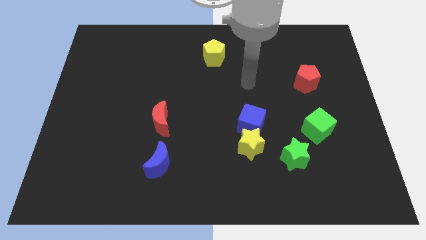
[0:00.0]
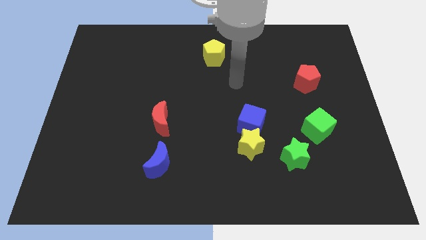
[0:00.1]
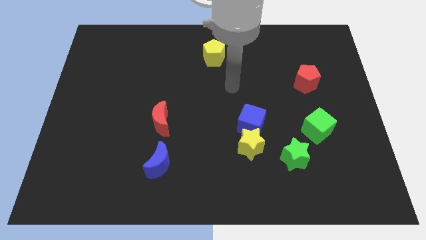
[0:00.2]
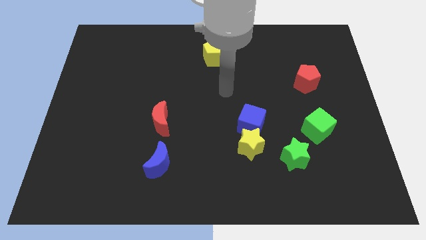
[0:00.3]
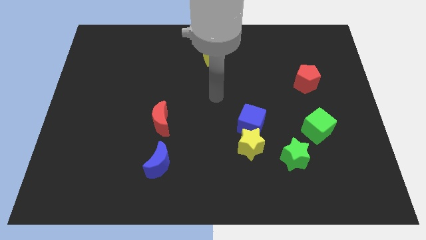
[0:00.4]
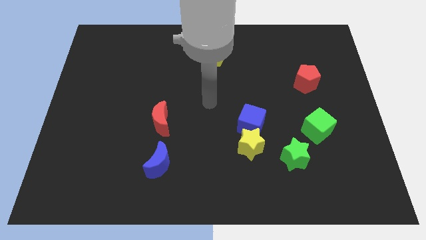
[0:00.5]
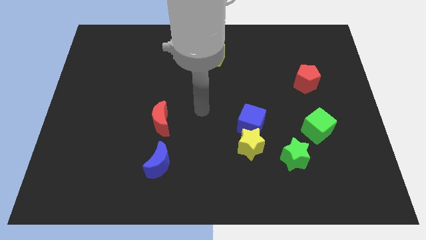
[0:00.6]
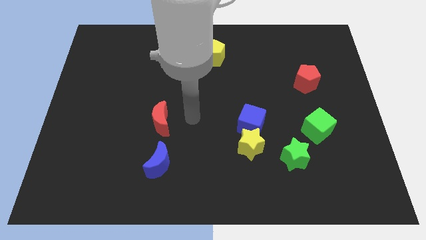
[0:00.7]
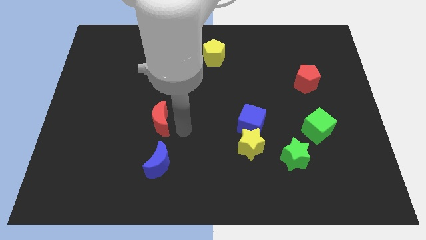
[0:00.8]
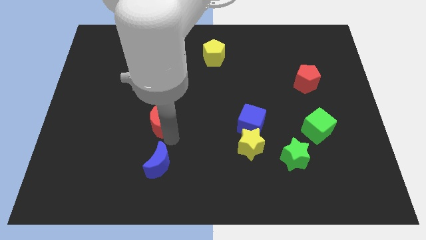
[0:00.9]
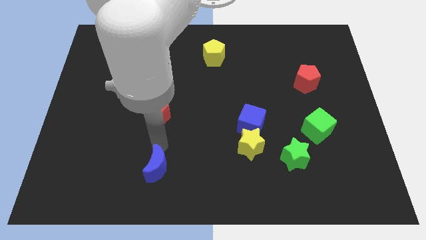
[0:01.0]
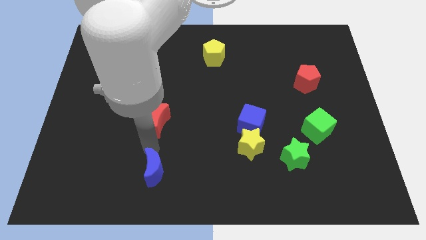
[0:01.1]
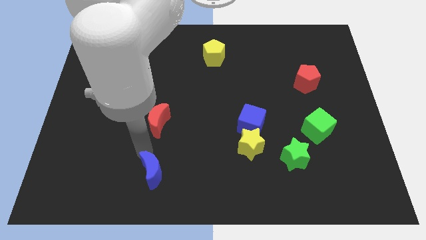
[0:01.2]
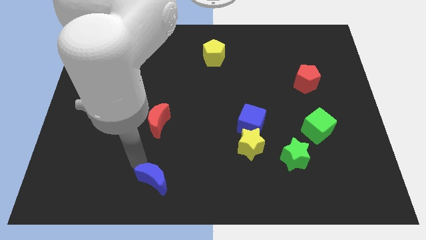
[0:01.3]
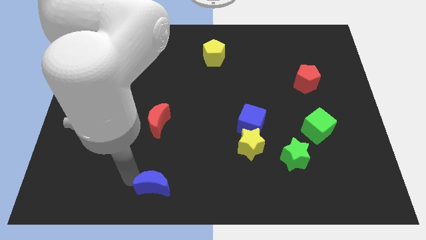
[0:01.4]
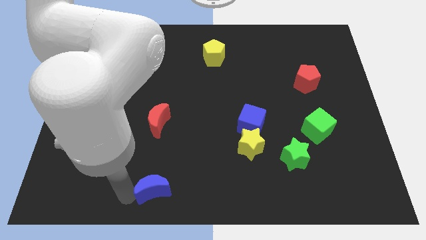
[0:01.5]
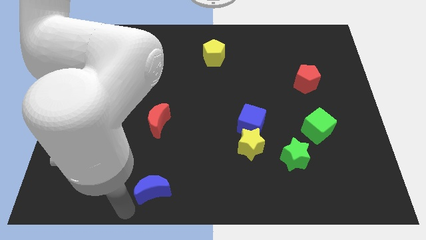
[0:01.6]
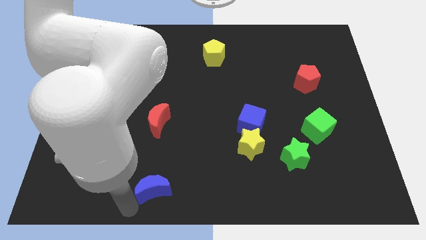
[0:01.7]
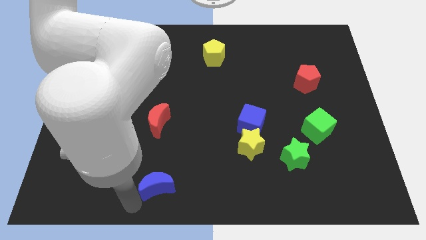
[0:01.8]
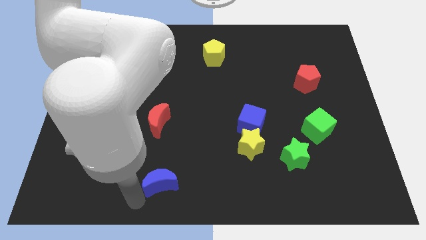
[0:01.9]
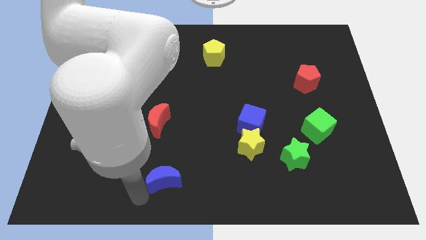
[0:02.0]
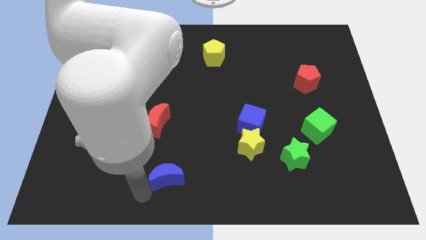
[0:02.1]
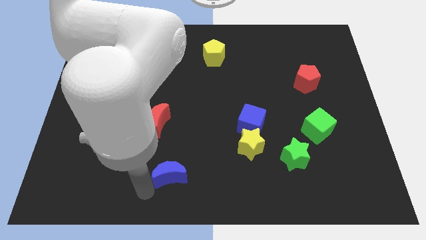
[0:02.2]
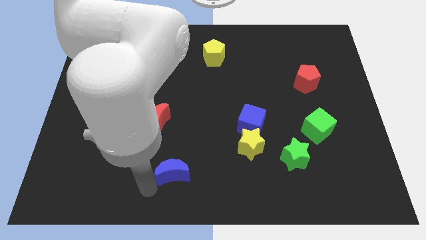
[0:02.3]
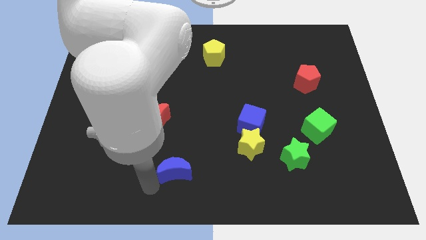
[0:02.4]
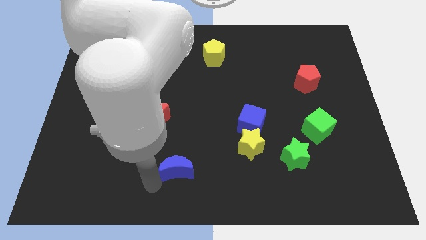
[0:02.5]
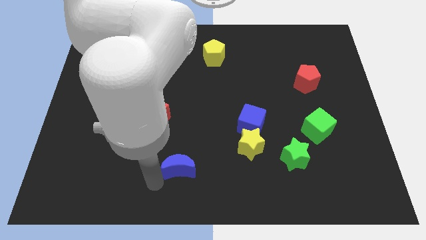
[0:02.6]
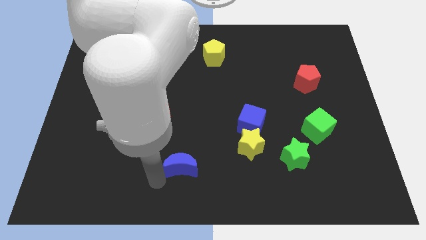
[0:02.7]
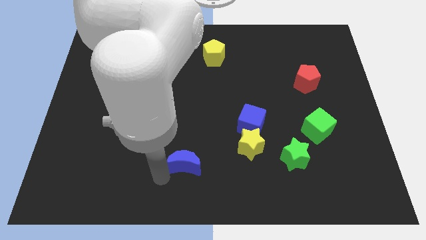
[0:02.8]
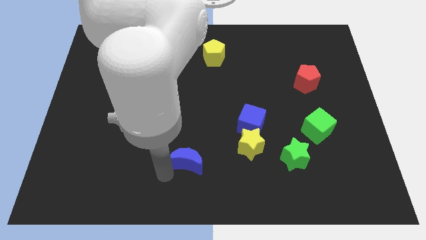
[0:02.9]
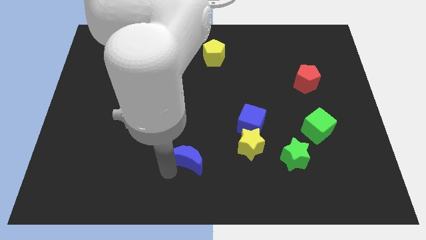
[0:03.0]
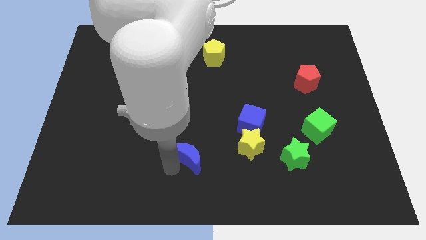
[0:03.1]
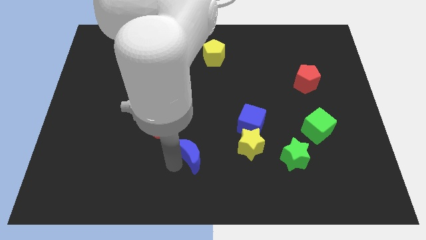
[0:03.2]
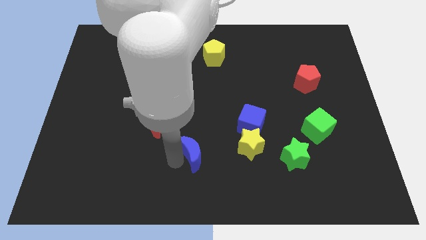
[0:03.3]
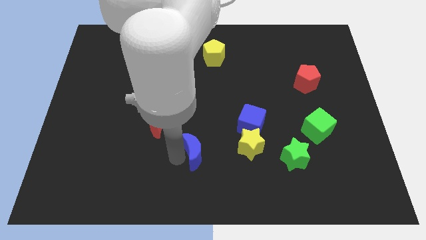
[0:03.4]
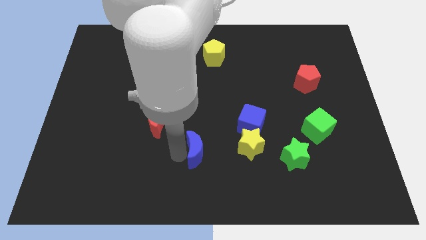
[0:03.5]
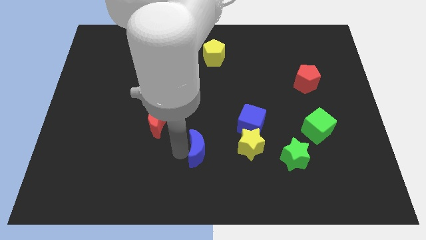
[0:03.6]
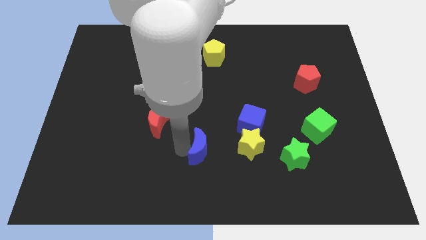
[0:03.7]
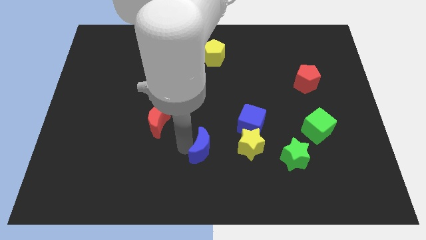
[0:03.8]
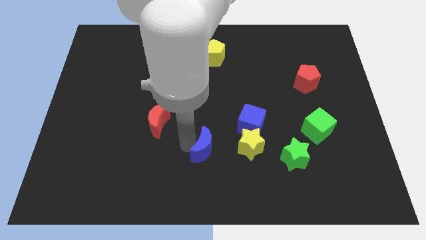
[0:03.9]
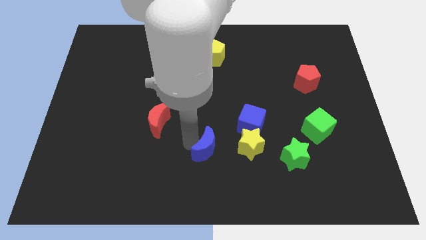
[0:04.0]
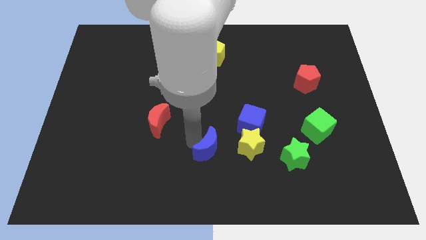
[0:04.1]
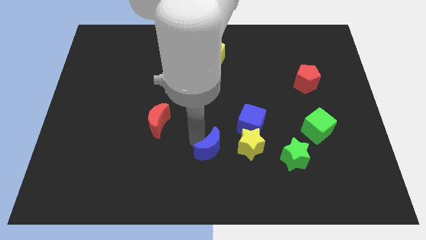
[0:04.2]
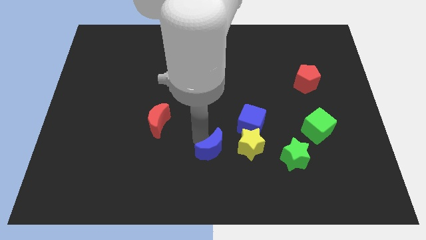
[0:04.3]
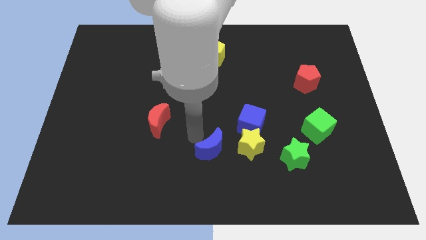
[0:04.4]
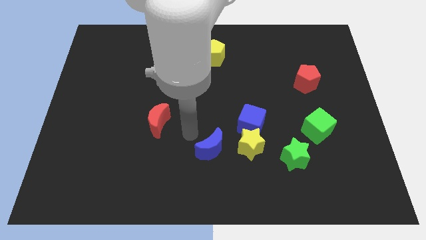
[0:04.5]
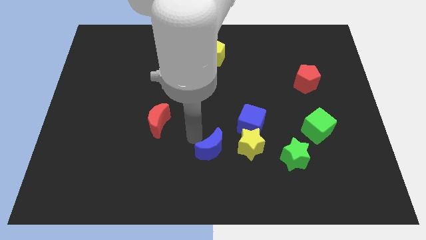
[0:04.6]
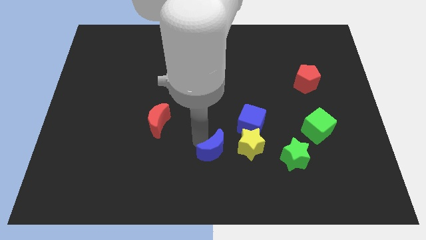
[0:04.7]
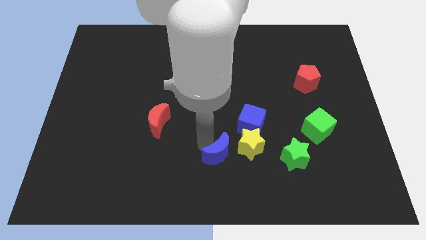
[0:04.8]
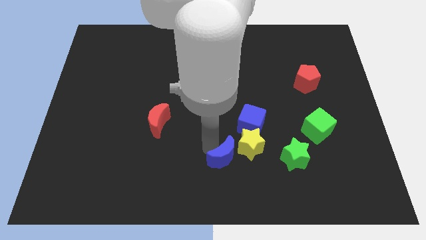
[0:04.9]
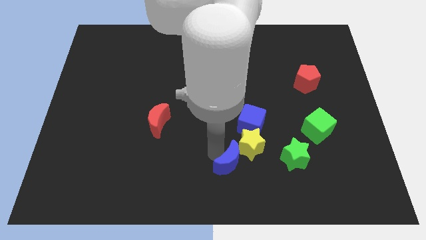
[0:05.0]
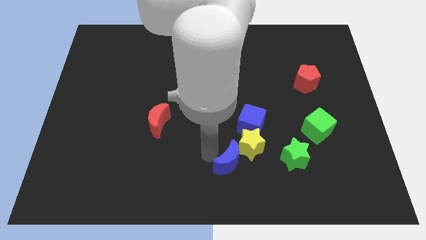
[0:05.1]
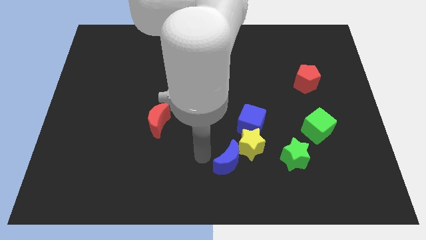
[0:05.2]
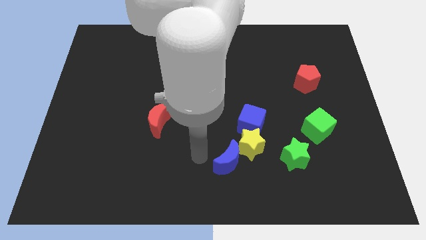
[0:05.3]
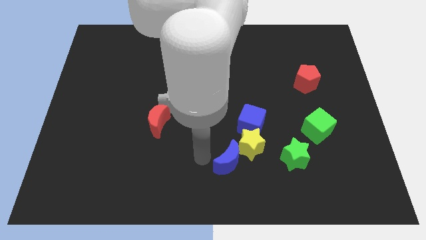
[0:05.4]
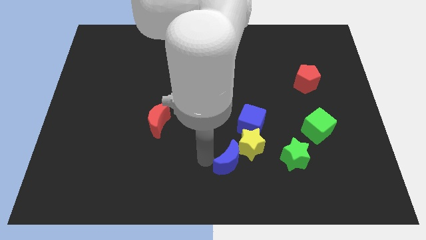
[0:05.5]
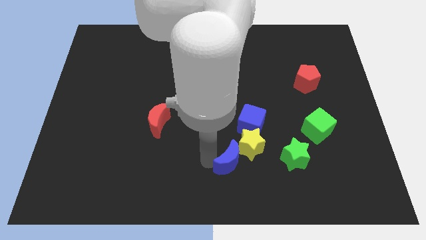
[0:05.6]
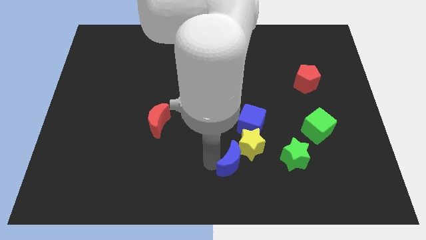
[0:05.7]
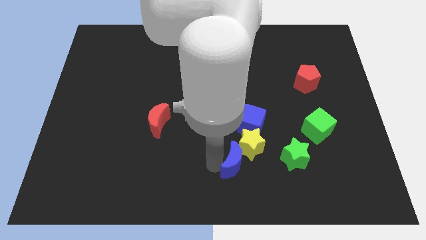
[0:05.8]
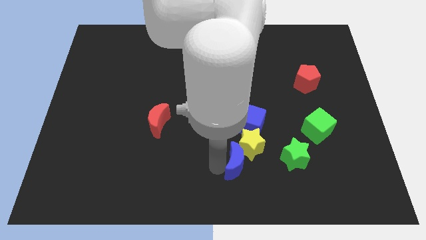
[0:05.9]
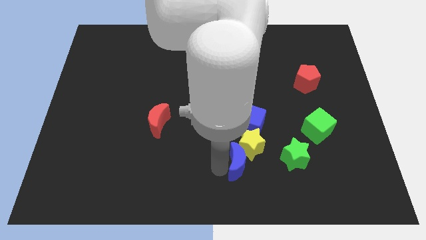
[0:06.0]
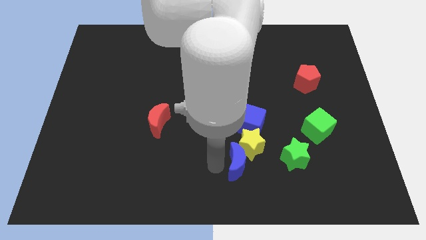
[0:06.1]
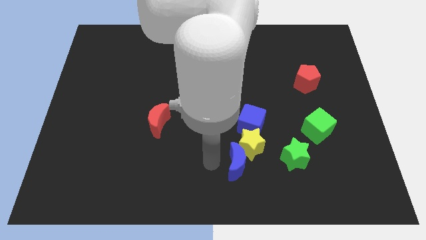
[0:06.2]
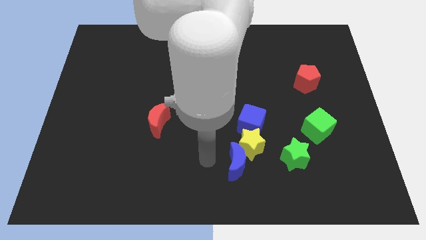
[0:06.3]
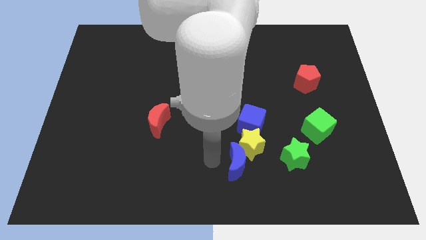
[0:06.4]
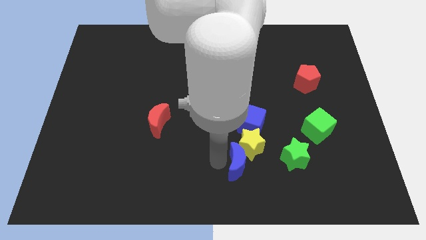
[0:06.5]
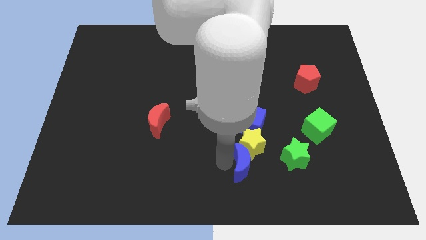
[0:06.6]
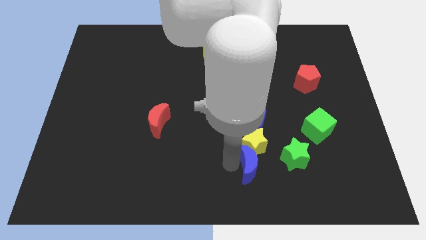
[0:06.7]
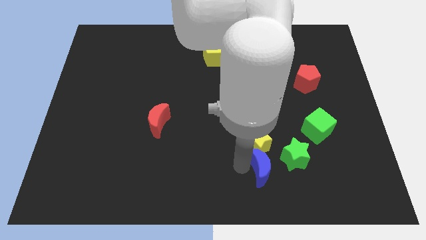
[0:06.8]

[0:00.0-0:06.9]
push the blue moon right
